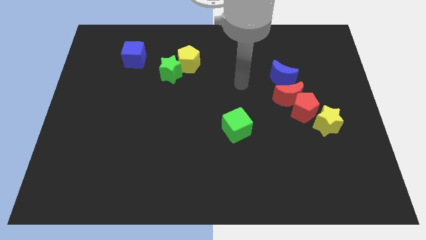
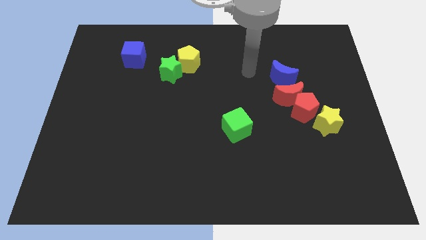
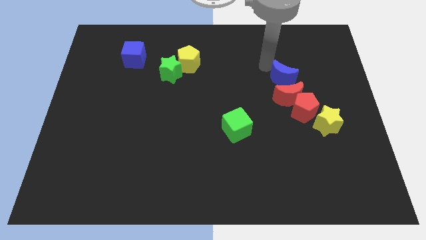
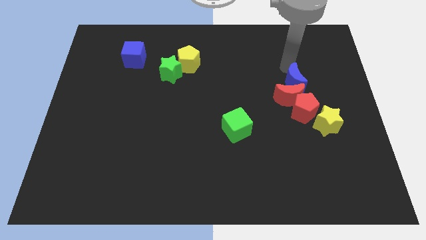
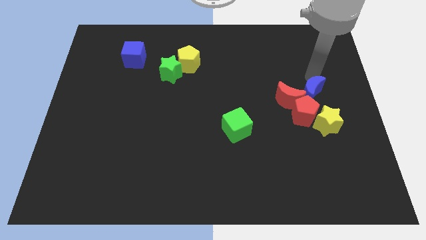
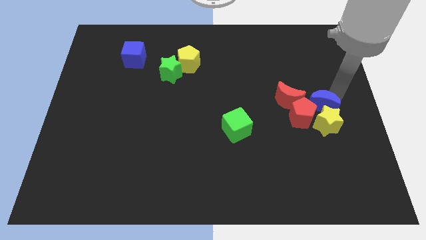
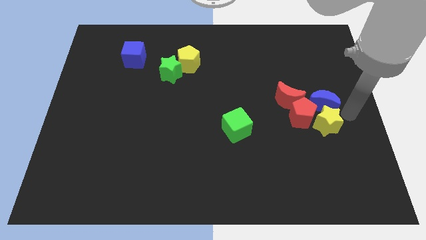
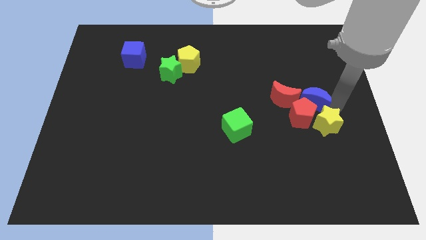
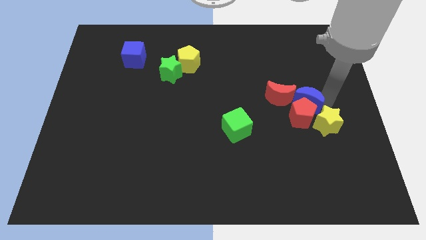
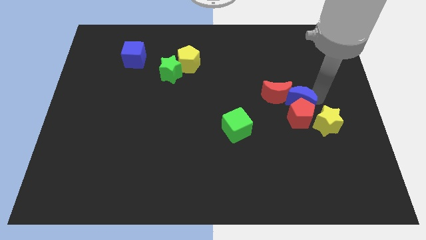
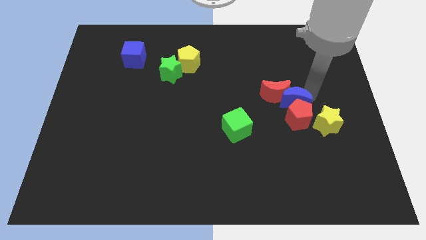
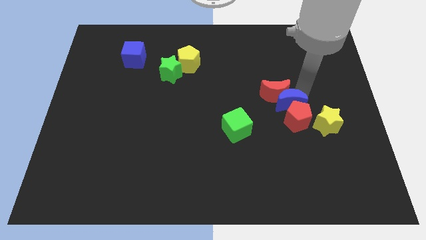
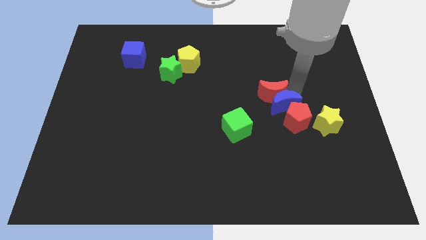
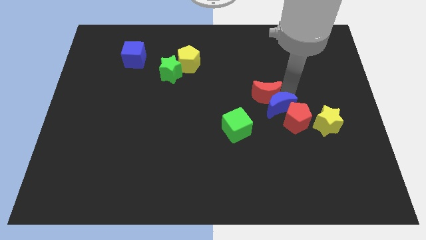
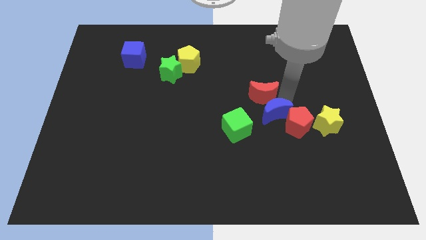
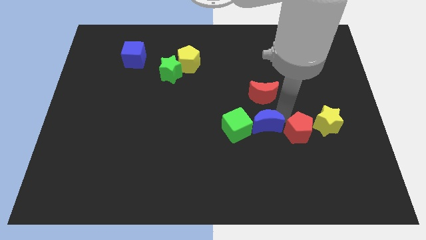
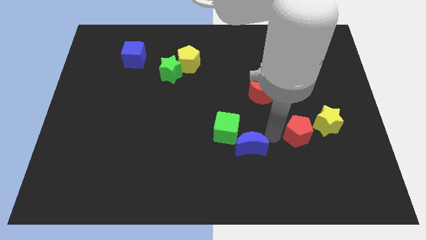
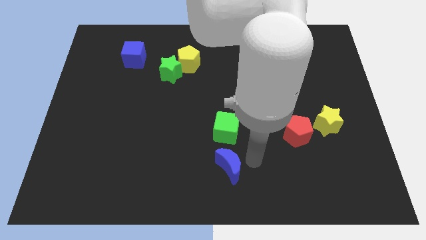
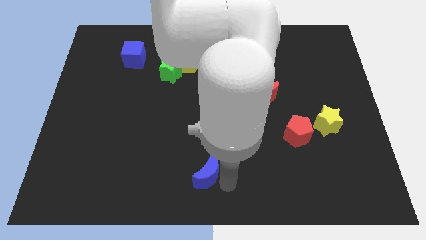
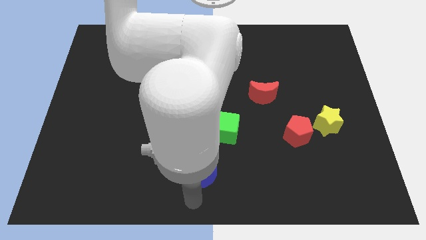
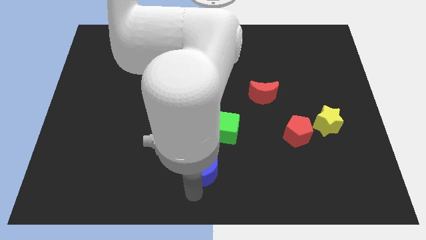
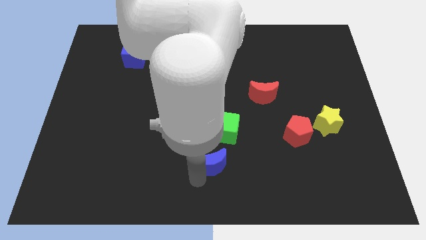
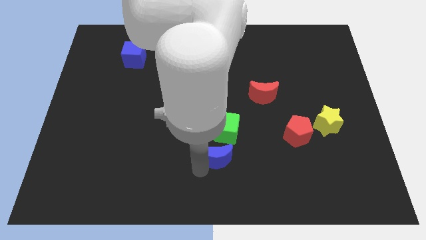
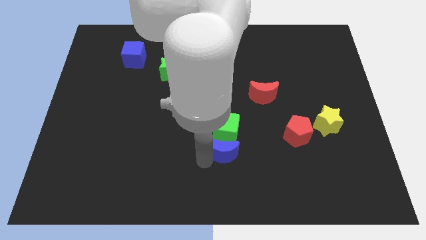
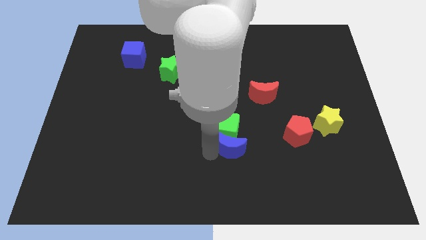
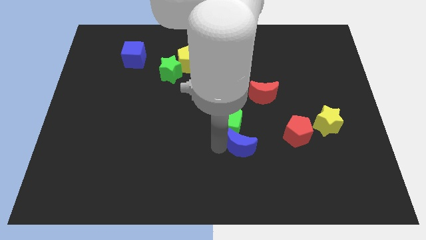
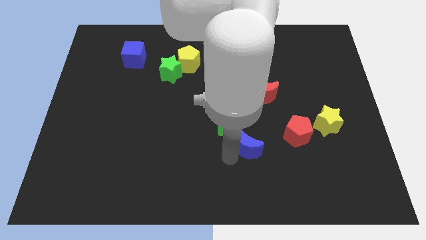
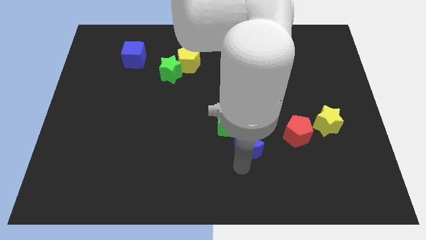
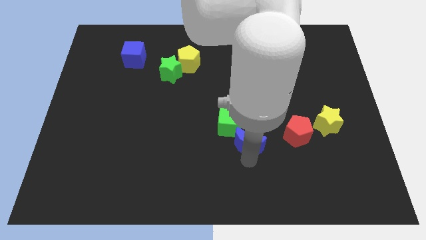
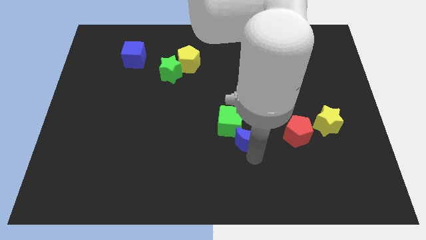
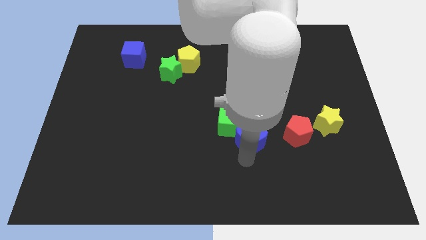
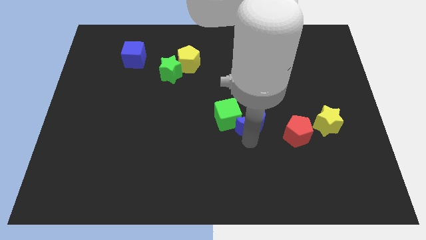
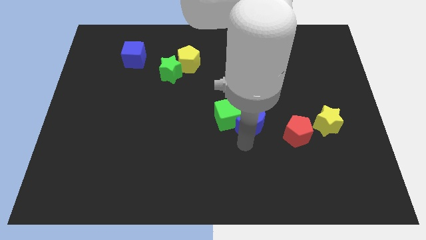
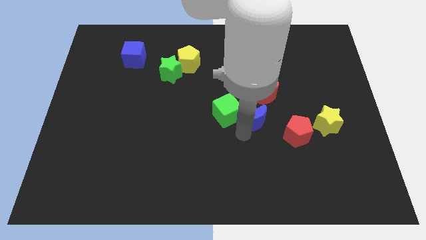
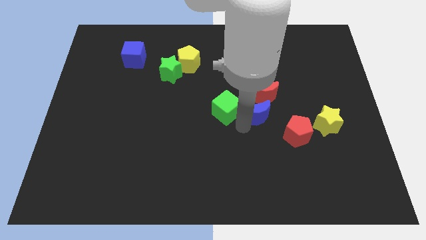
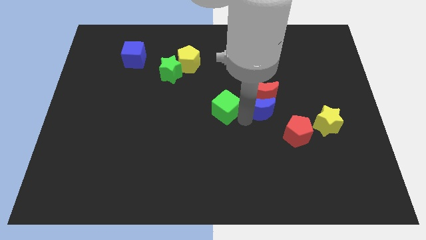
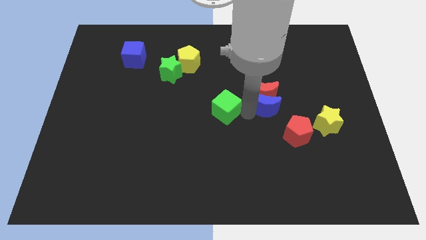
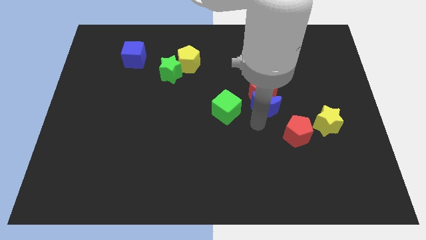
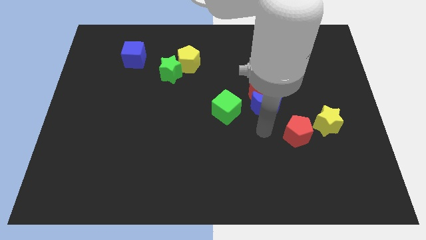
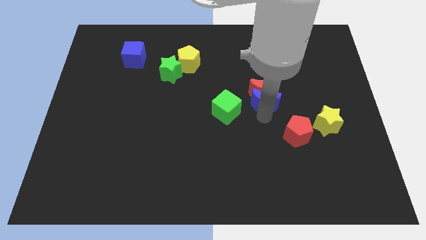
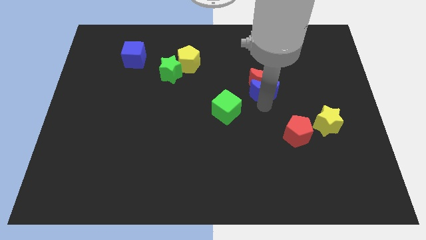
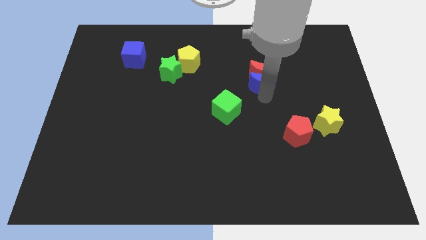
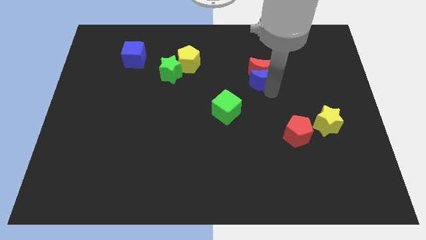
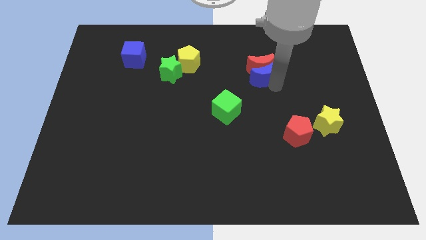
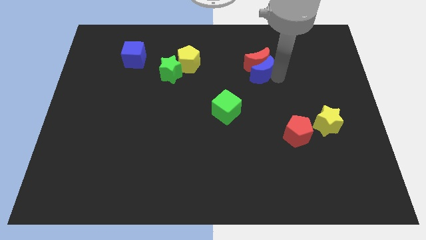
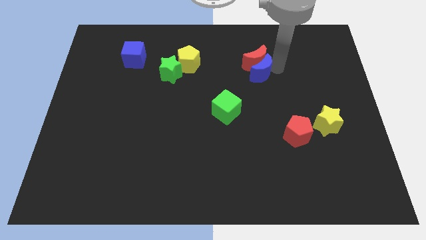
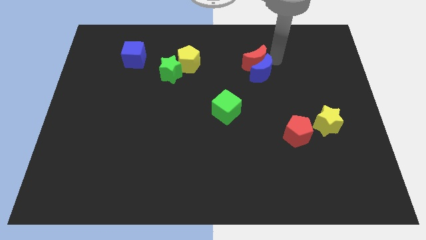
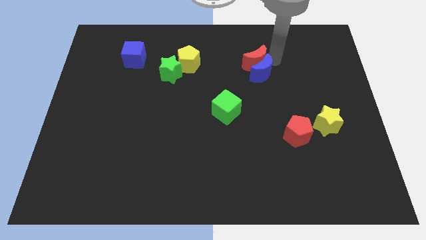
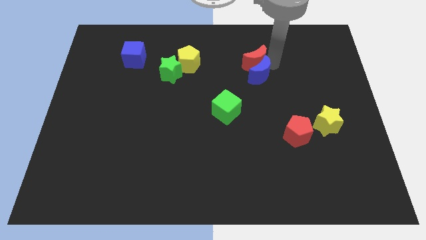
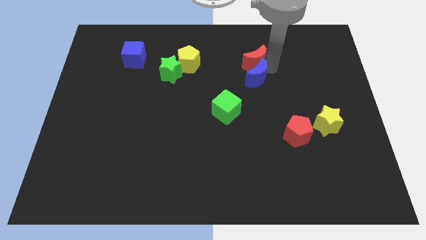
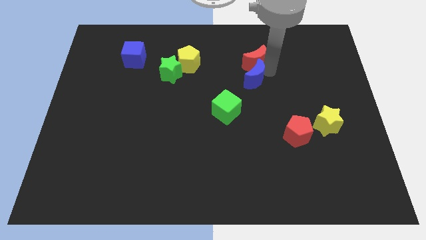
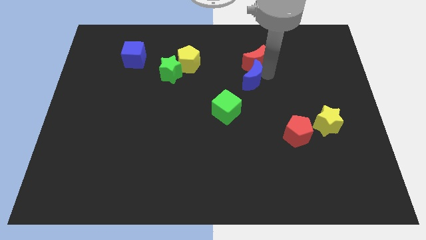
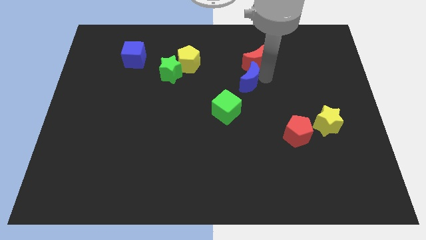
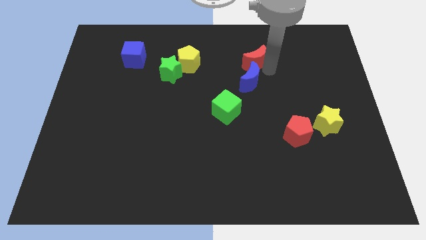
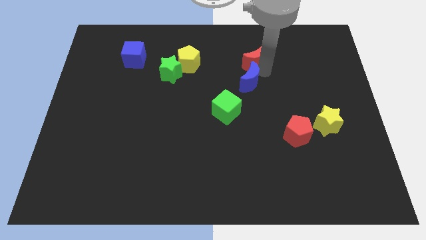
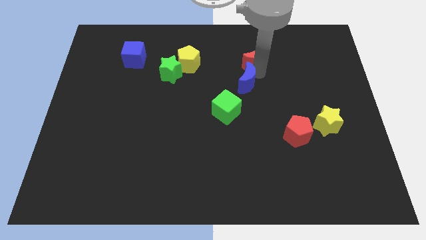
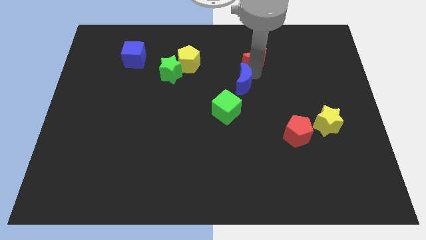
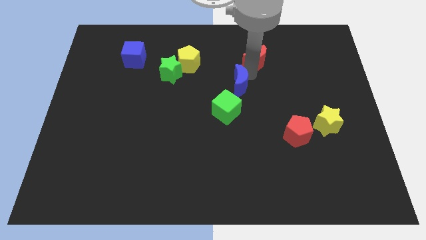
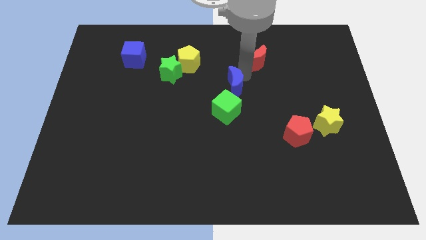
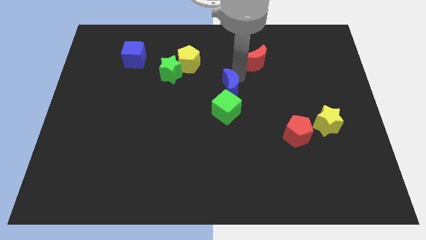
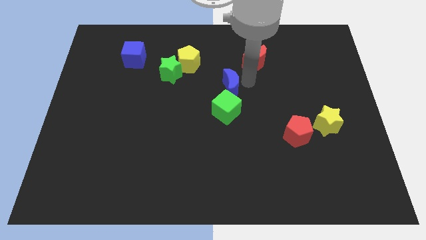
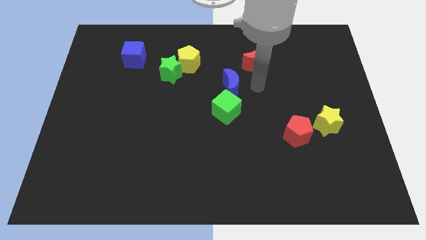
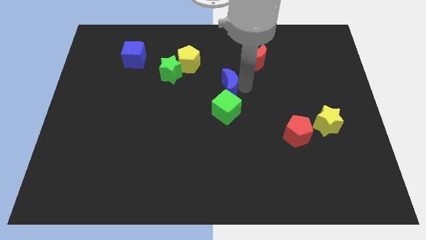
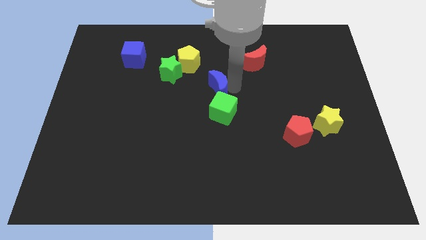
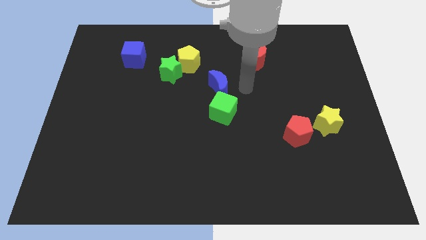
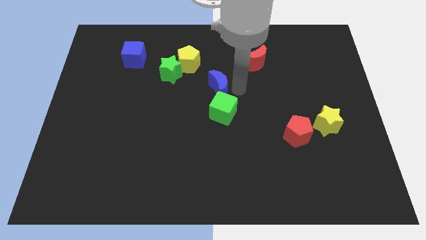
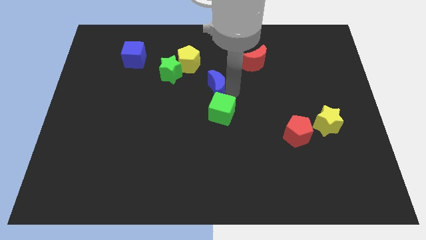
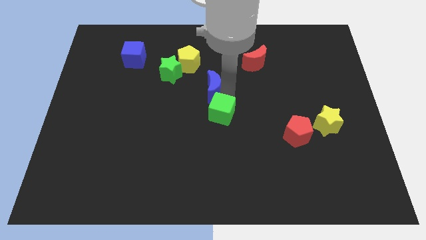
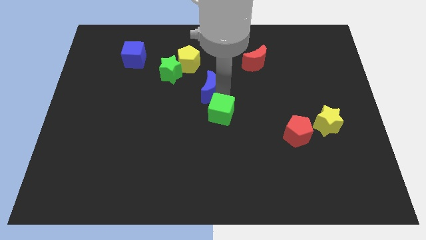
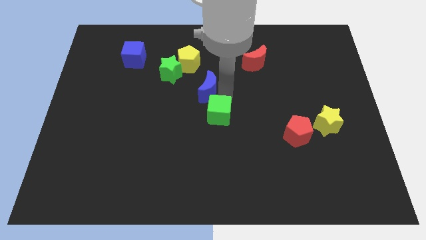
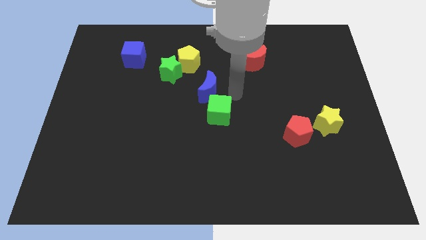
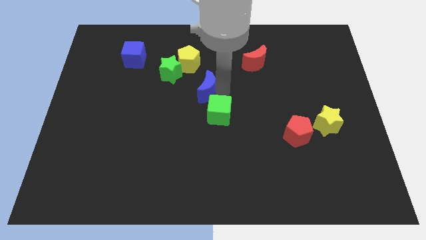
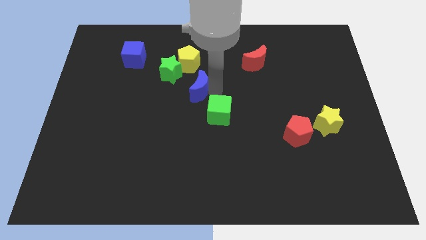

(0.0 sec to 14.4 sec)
slide the blue moon to the left

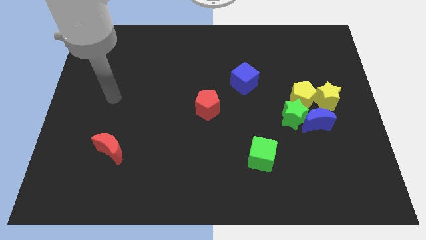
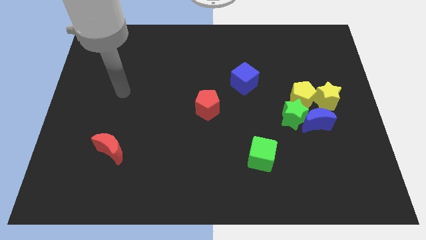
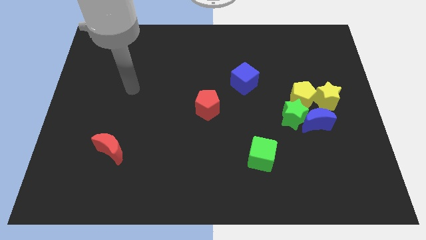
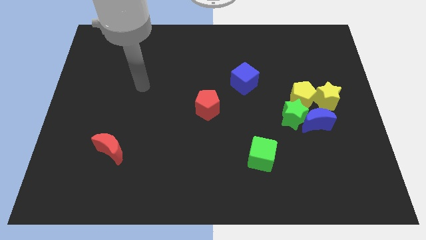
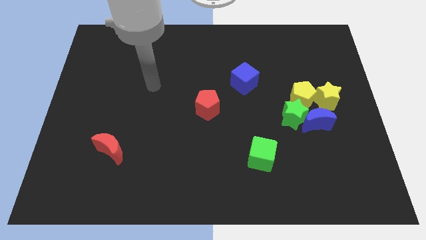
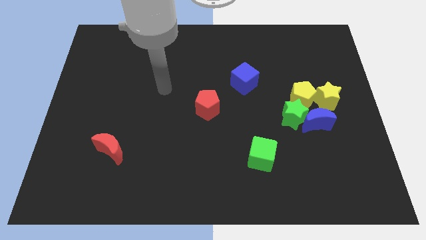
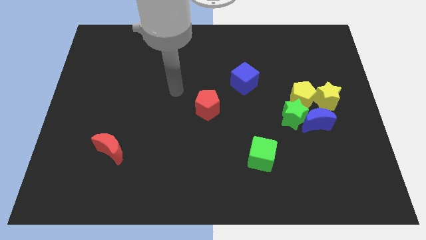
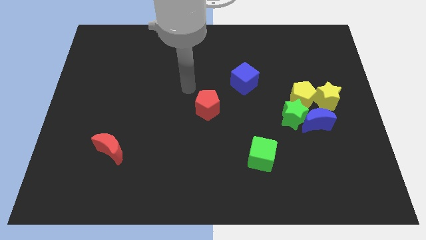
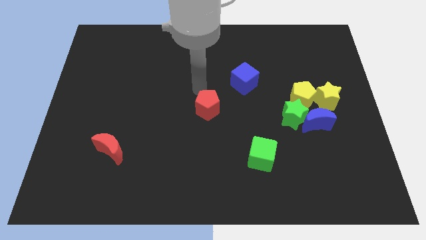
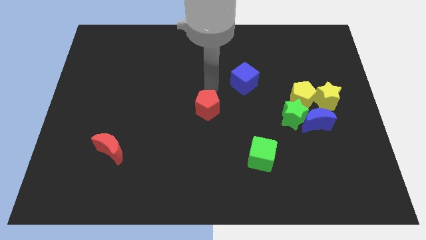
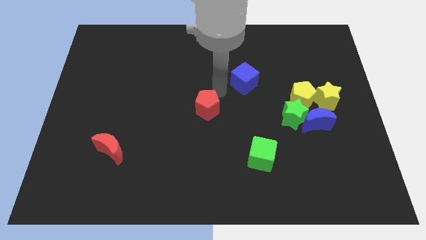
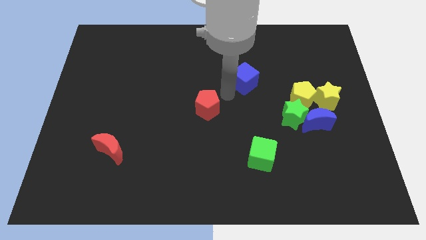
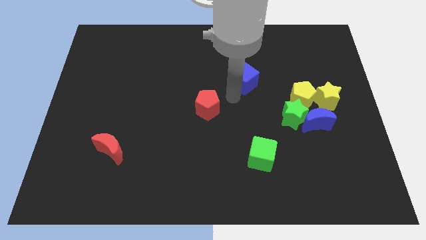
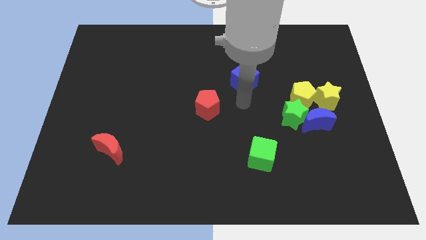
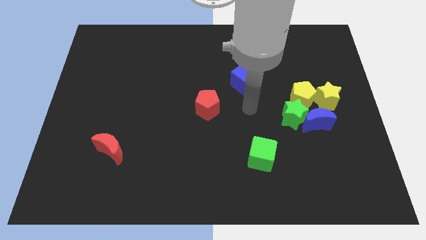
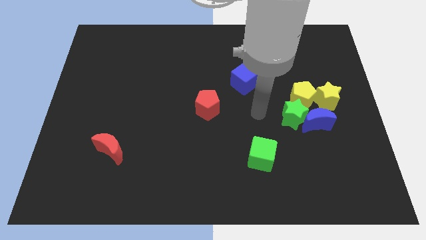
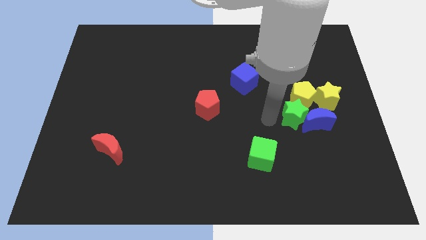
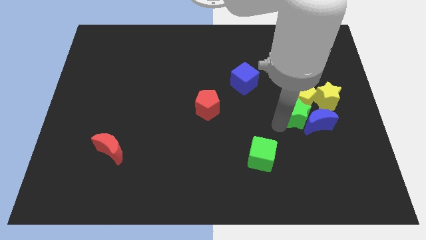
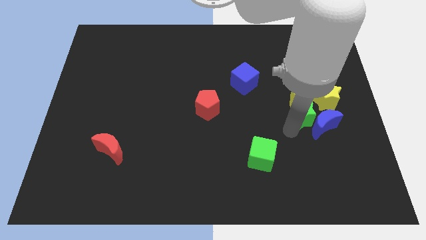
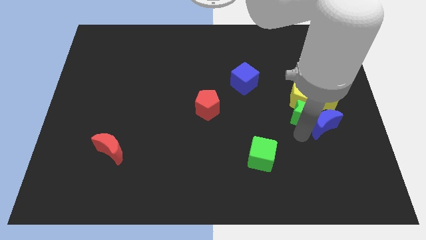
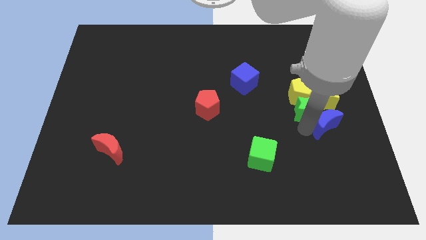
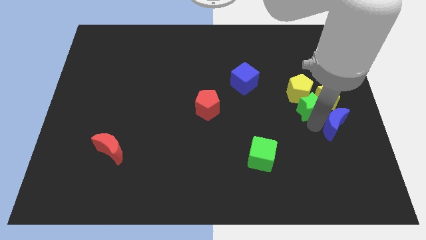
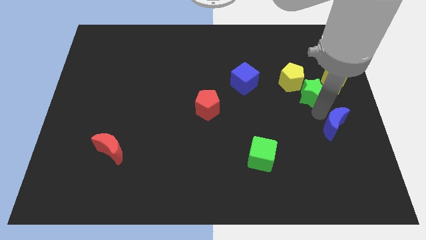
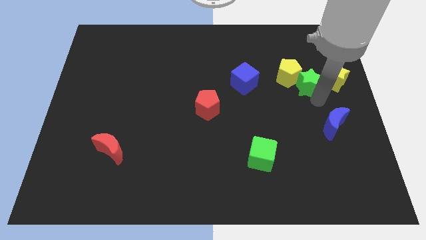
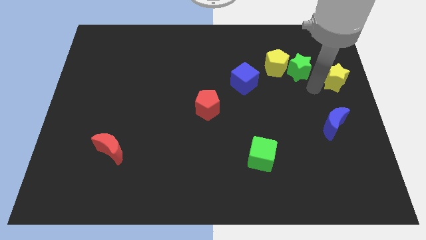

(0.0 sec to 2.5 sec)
slightly slide the yellow pentagon diagonally upwards and left
